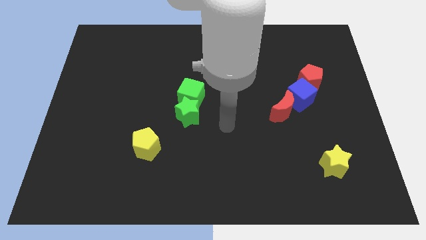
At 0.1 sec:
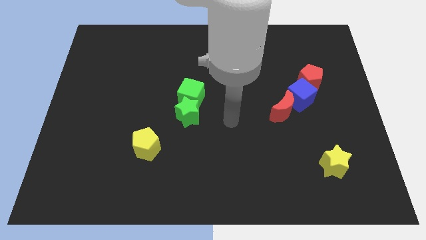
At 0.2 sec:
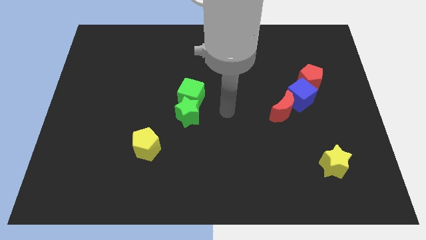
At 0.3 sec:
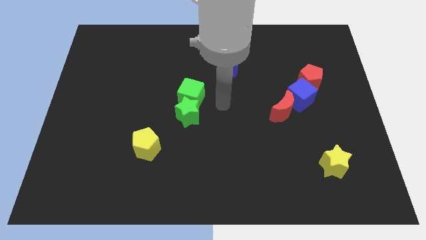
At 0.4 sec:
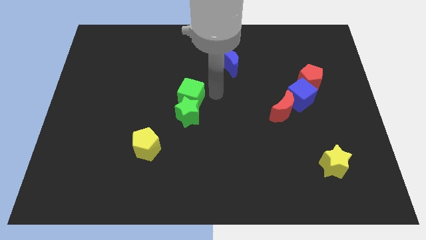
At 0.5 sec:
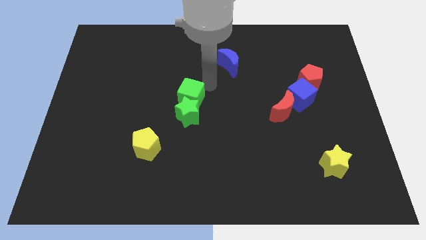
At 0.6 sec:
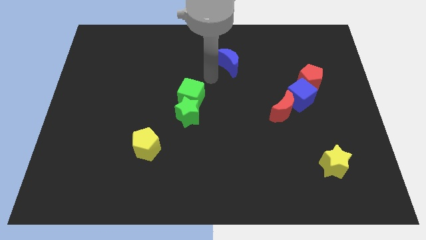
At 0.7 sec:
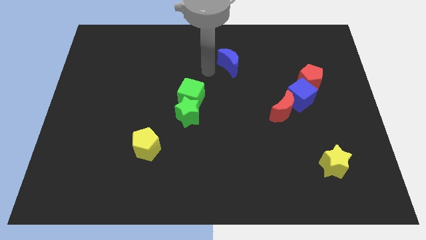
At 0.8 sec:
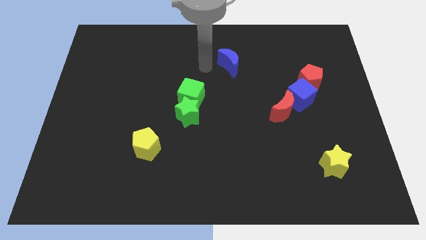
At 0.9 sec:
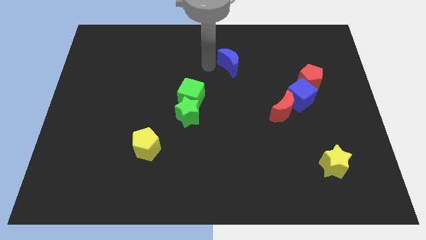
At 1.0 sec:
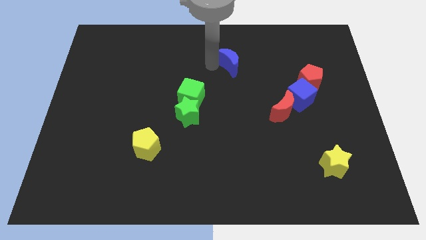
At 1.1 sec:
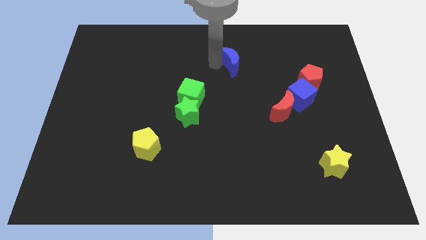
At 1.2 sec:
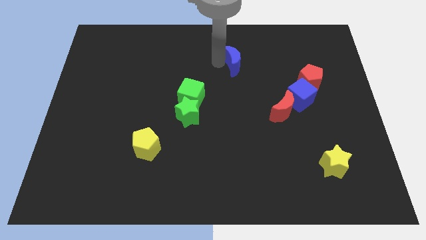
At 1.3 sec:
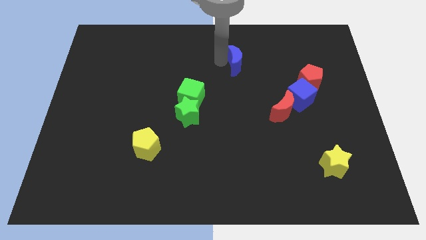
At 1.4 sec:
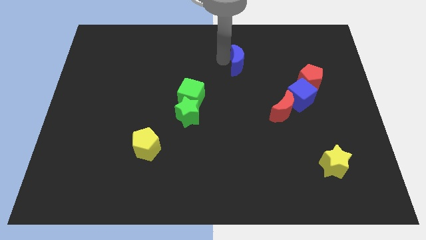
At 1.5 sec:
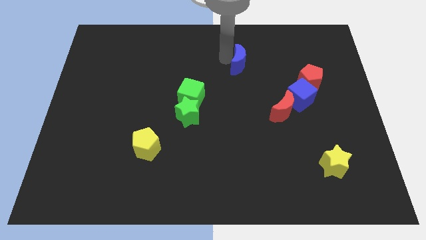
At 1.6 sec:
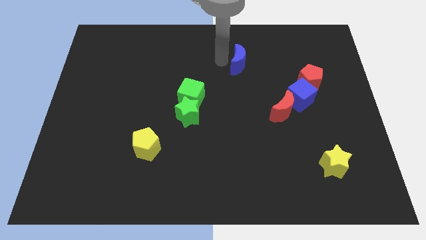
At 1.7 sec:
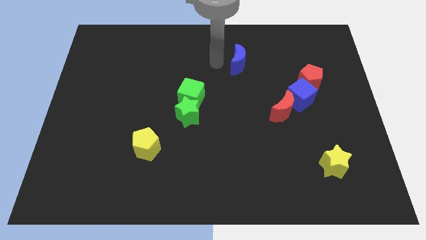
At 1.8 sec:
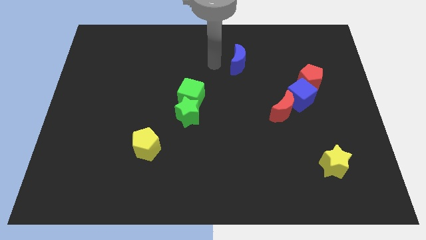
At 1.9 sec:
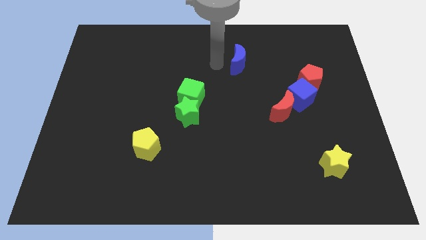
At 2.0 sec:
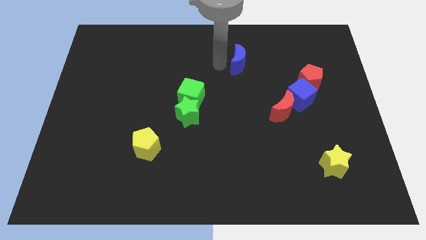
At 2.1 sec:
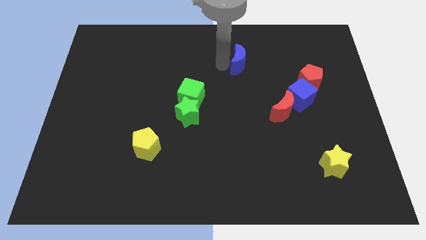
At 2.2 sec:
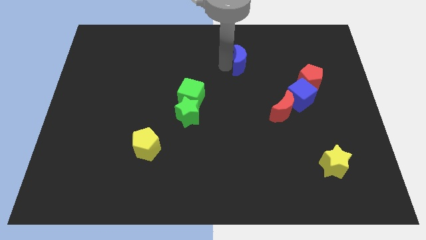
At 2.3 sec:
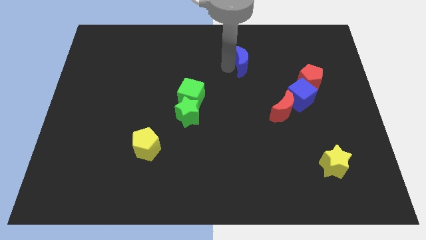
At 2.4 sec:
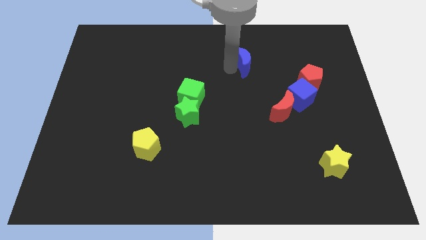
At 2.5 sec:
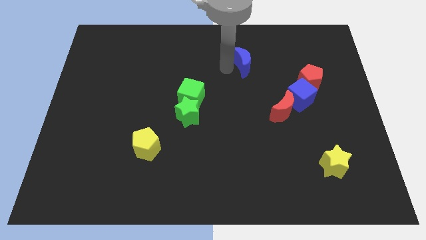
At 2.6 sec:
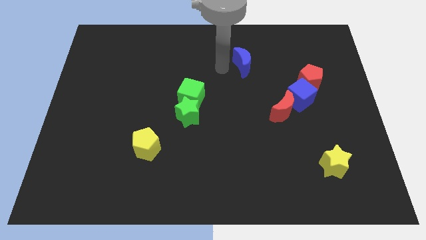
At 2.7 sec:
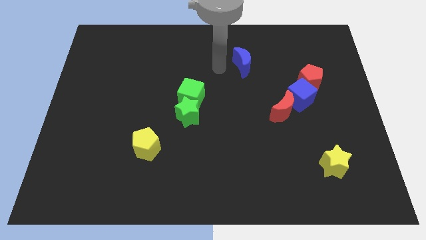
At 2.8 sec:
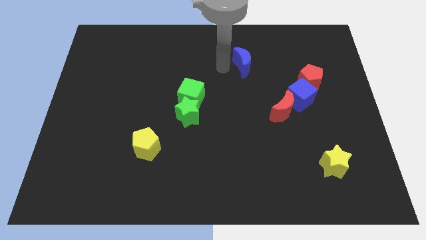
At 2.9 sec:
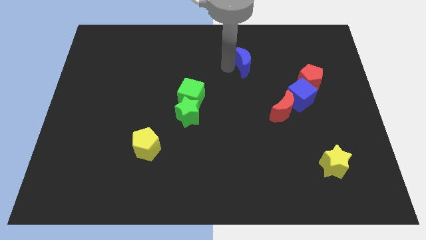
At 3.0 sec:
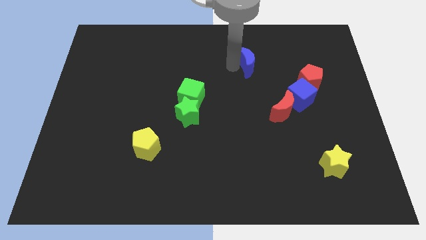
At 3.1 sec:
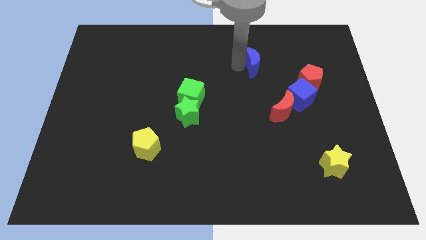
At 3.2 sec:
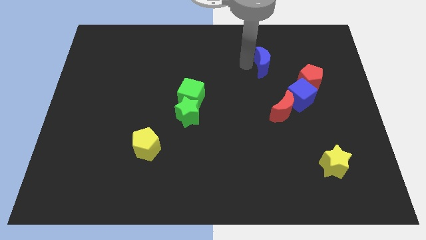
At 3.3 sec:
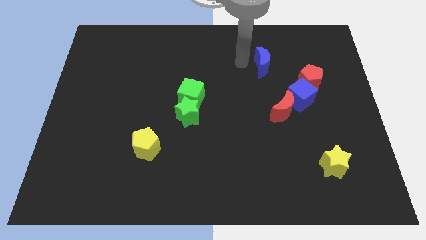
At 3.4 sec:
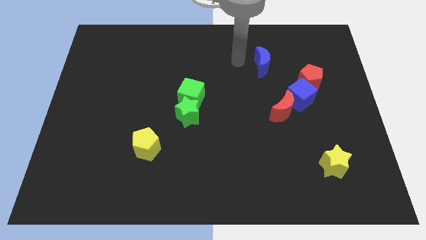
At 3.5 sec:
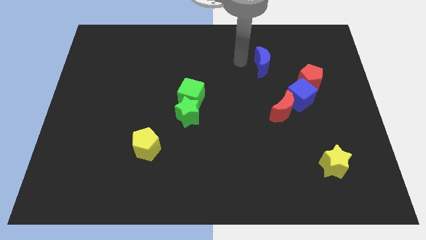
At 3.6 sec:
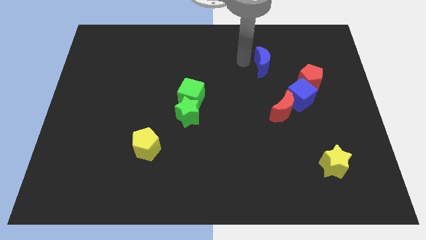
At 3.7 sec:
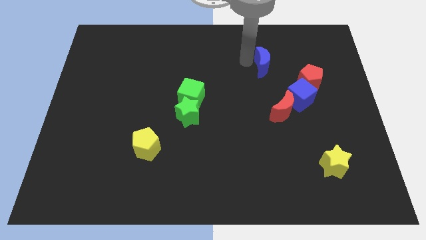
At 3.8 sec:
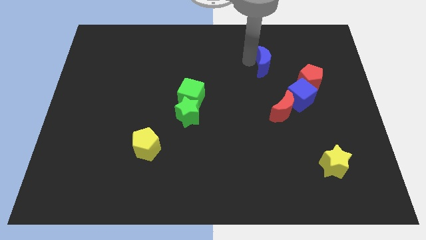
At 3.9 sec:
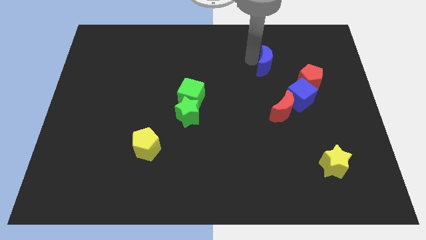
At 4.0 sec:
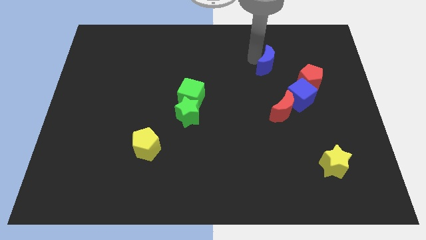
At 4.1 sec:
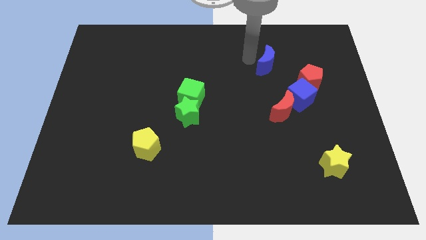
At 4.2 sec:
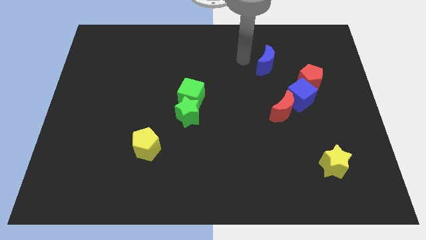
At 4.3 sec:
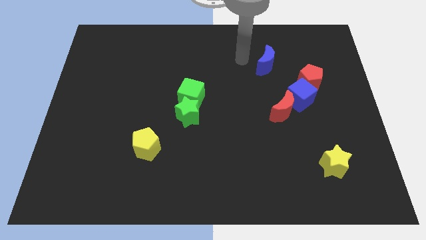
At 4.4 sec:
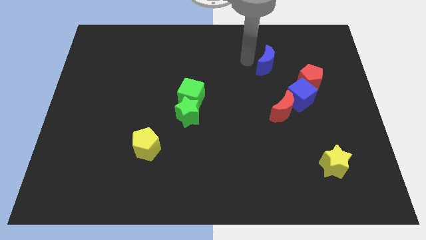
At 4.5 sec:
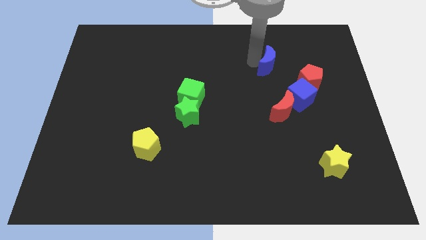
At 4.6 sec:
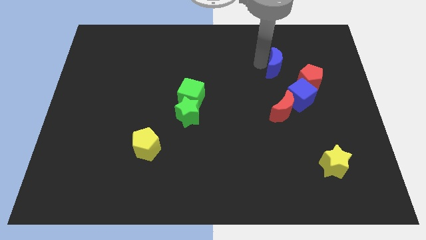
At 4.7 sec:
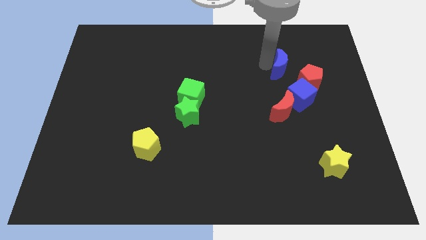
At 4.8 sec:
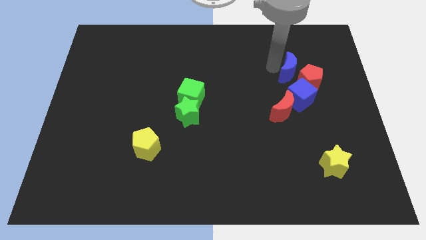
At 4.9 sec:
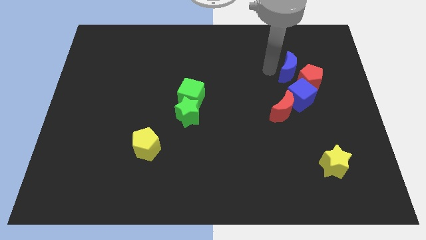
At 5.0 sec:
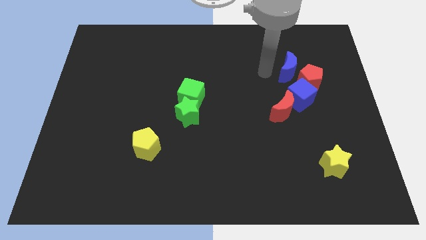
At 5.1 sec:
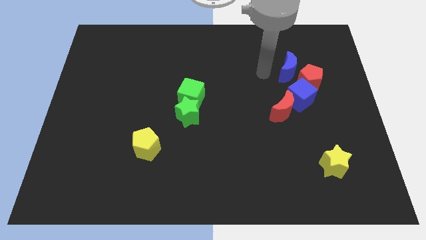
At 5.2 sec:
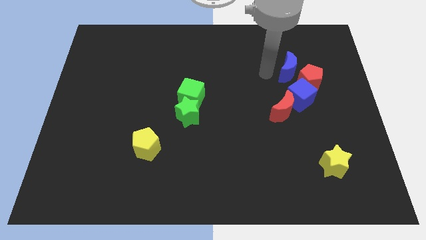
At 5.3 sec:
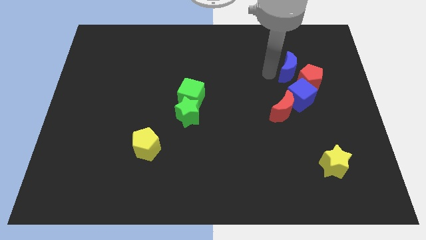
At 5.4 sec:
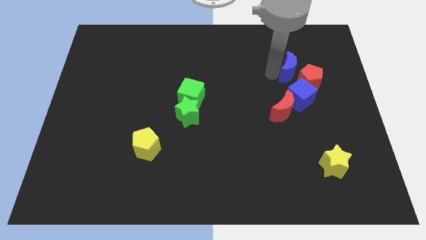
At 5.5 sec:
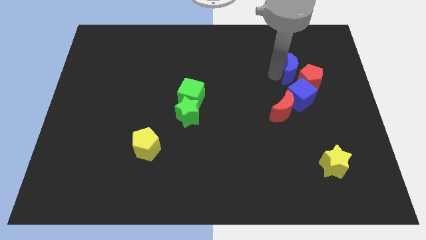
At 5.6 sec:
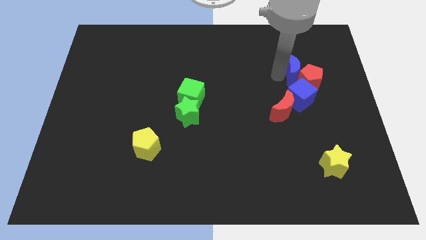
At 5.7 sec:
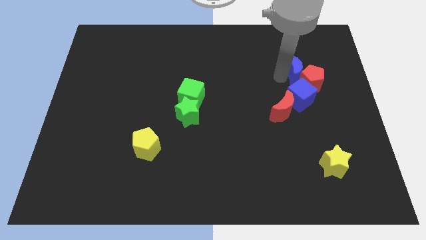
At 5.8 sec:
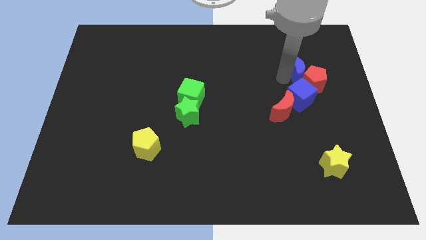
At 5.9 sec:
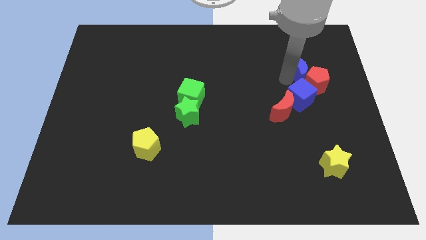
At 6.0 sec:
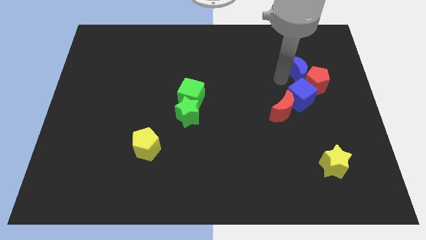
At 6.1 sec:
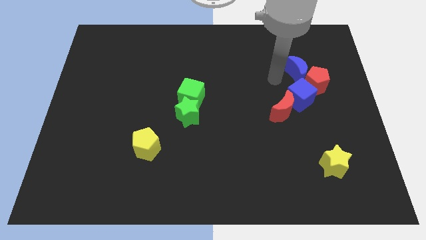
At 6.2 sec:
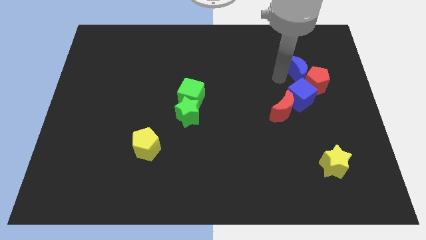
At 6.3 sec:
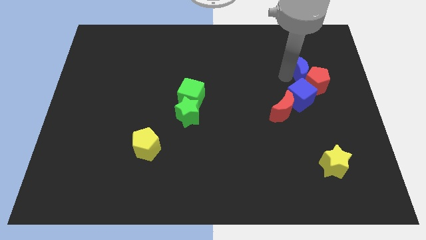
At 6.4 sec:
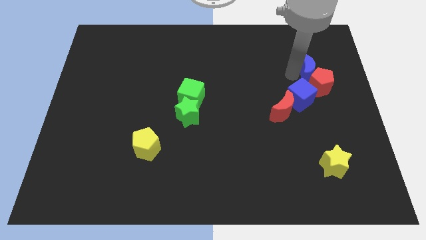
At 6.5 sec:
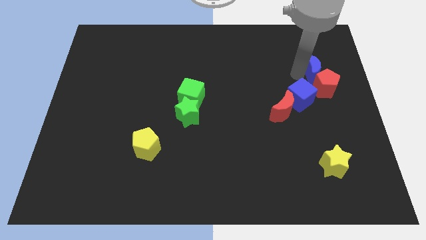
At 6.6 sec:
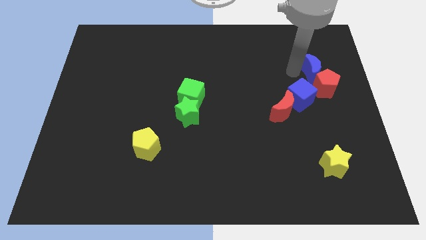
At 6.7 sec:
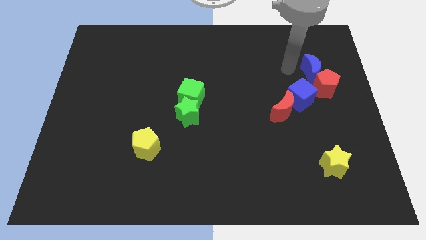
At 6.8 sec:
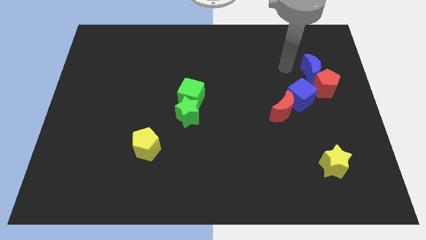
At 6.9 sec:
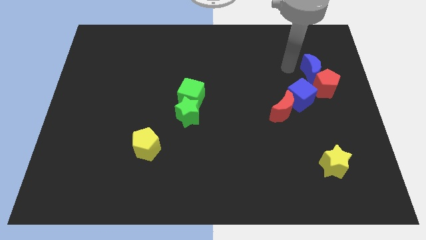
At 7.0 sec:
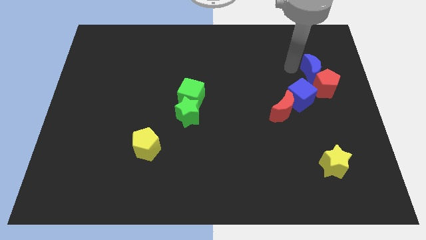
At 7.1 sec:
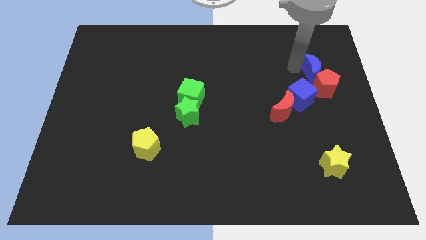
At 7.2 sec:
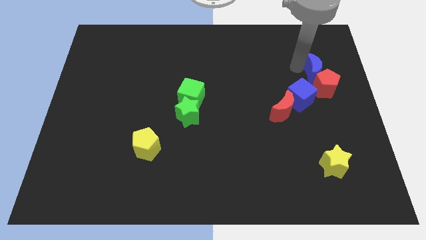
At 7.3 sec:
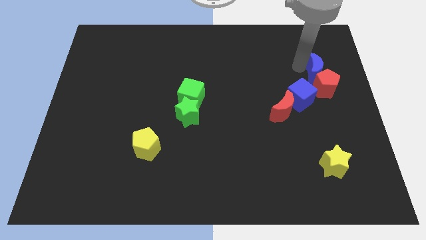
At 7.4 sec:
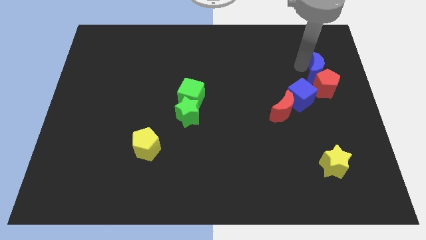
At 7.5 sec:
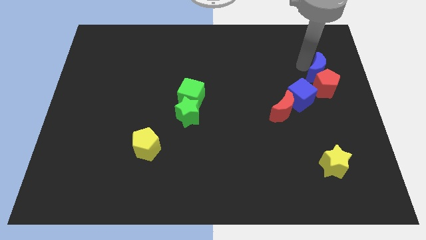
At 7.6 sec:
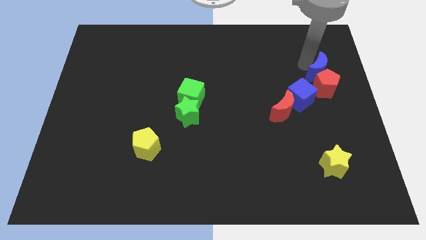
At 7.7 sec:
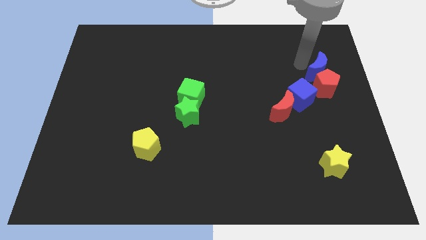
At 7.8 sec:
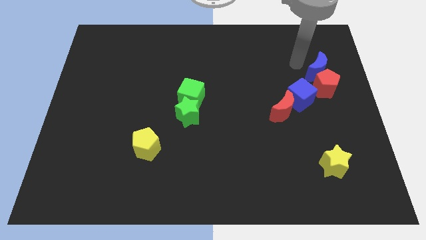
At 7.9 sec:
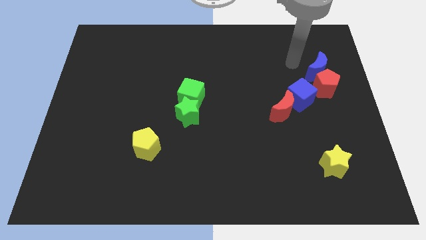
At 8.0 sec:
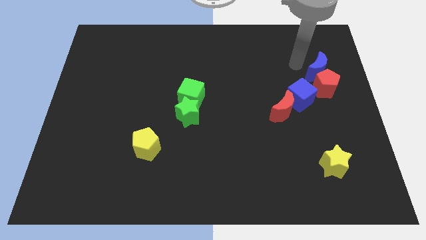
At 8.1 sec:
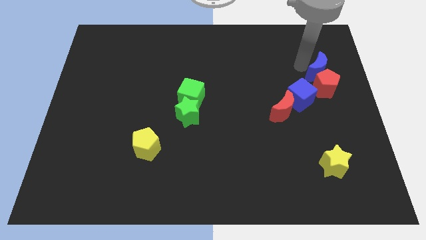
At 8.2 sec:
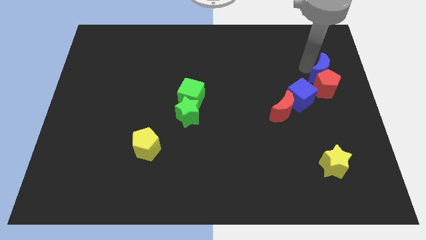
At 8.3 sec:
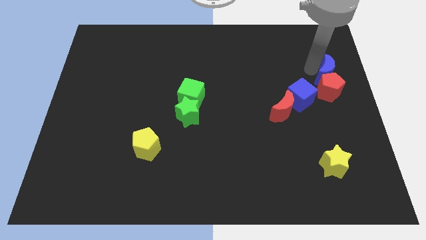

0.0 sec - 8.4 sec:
move the blue moon to the center right
